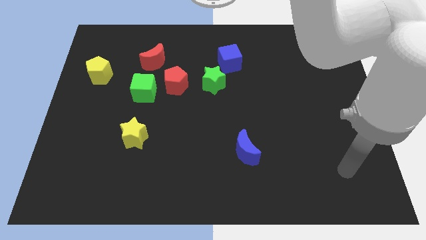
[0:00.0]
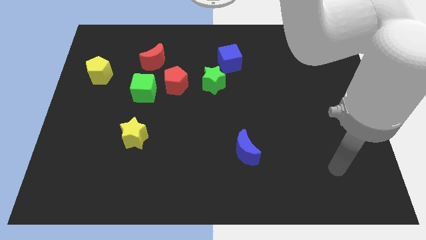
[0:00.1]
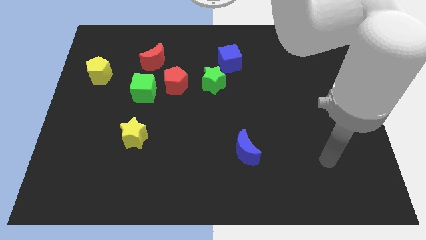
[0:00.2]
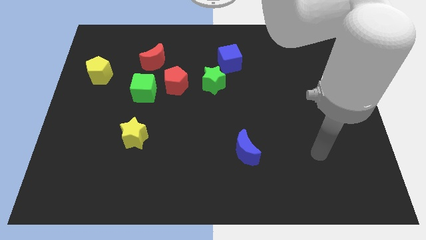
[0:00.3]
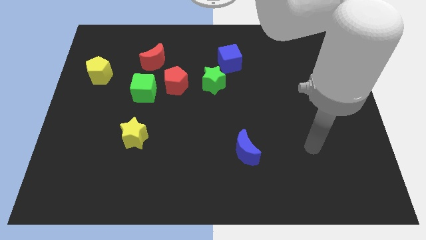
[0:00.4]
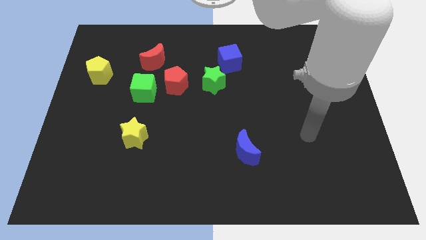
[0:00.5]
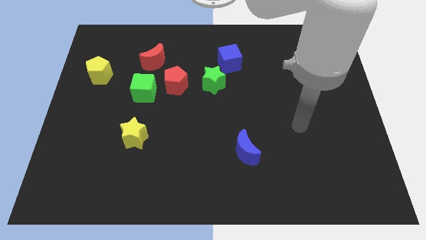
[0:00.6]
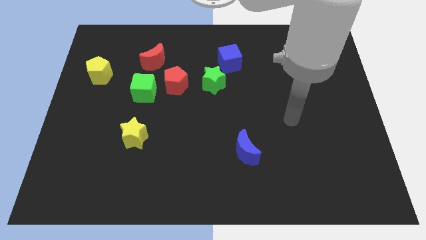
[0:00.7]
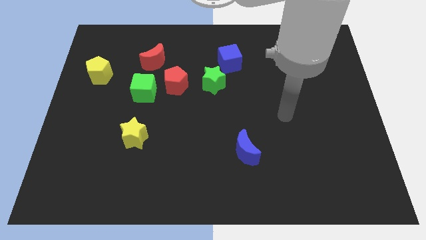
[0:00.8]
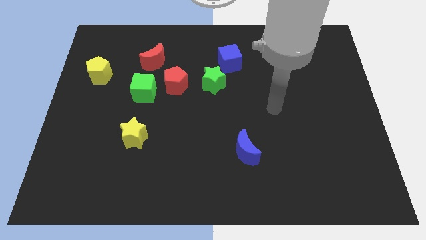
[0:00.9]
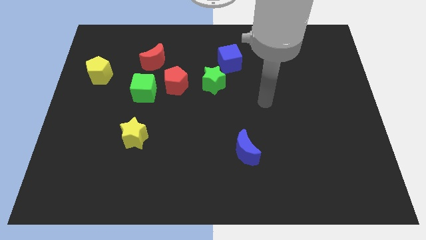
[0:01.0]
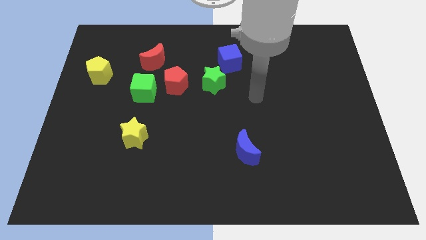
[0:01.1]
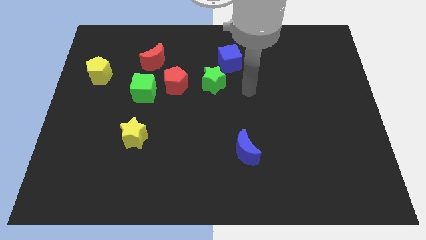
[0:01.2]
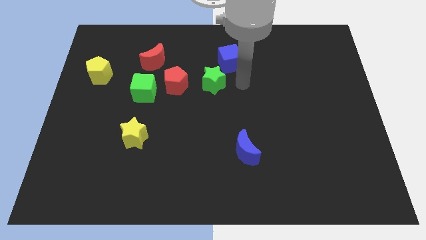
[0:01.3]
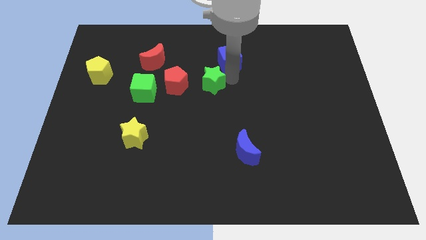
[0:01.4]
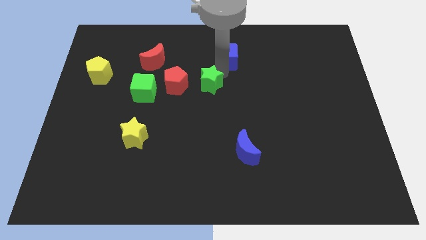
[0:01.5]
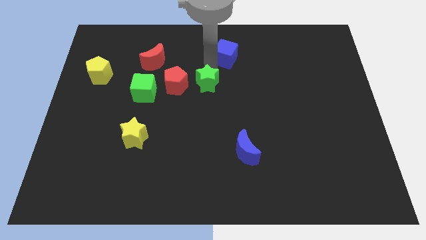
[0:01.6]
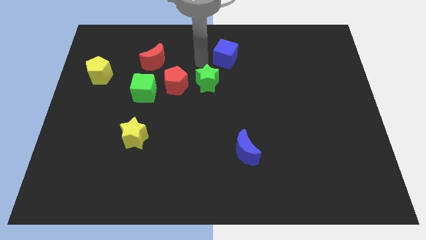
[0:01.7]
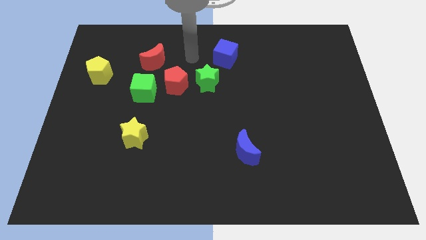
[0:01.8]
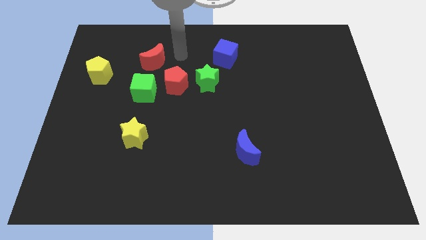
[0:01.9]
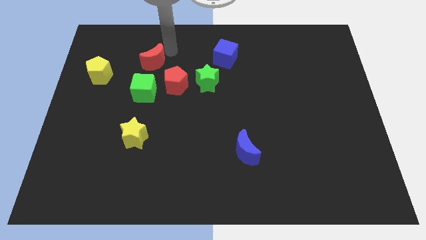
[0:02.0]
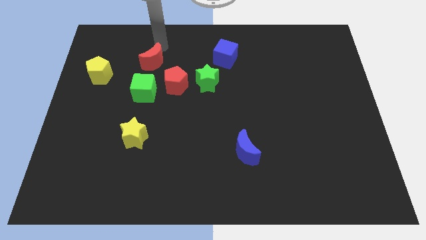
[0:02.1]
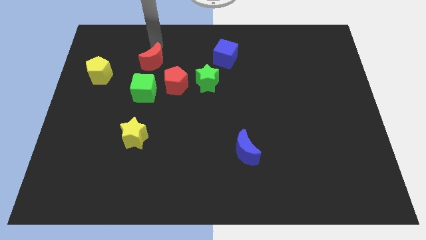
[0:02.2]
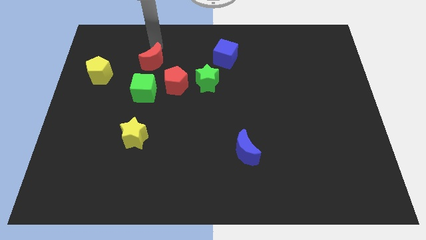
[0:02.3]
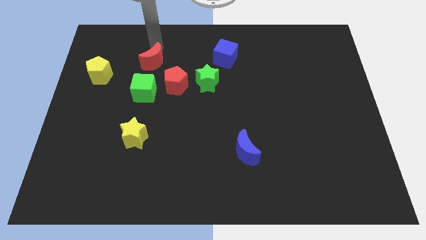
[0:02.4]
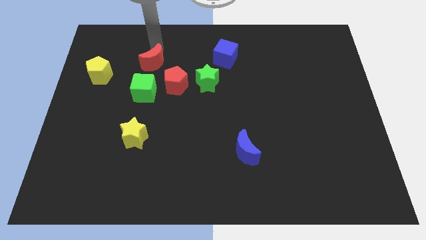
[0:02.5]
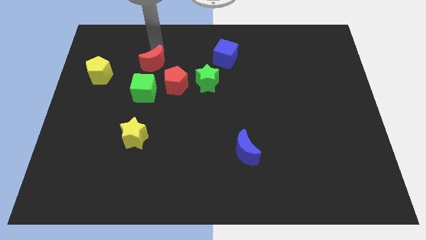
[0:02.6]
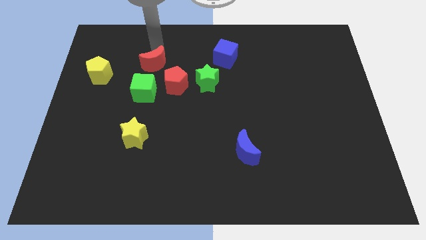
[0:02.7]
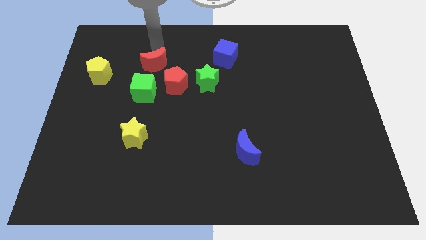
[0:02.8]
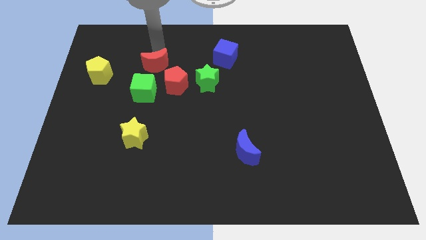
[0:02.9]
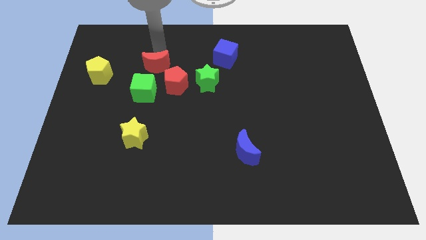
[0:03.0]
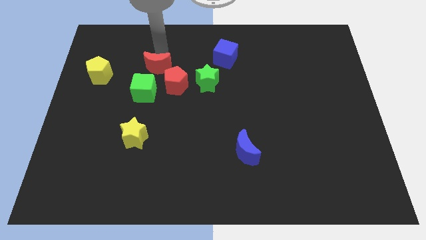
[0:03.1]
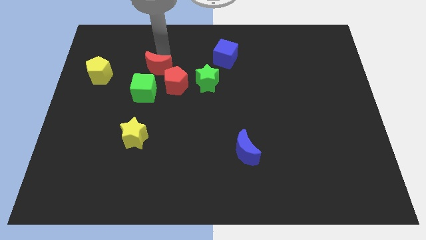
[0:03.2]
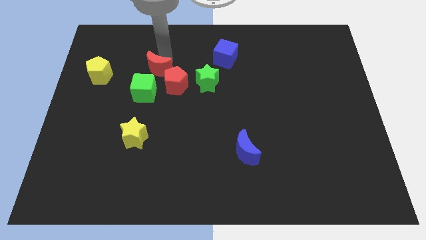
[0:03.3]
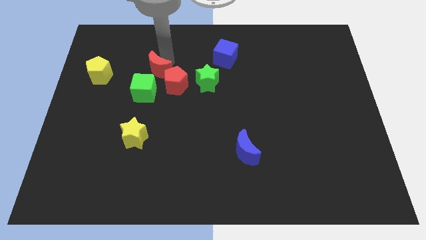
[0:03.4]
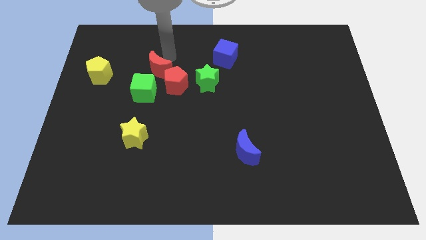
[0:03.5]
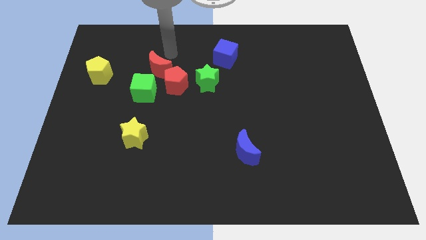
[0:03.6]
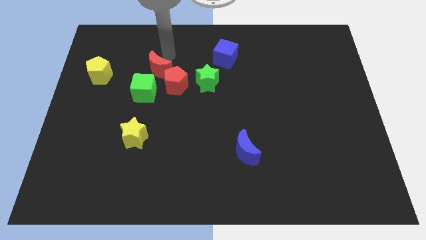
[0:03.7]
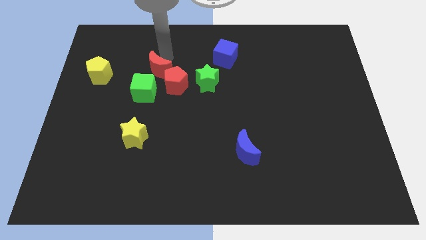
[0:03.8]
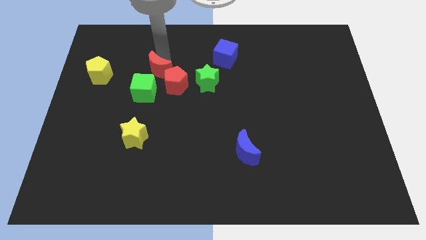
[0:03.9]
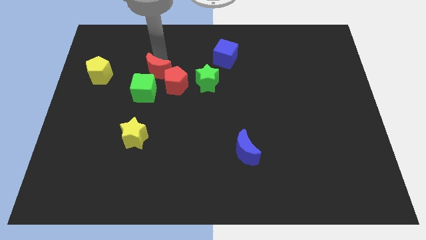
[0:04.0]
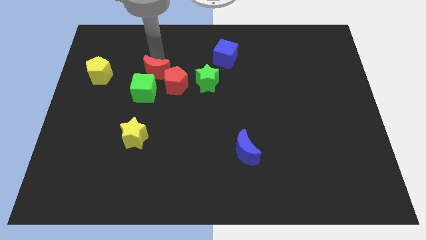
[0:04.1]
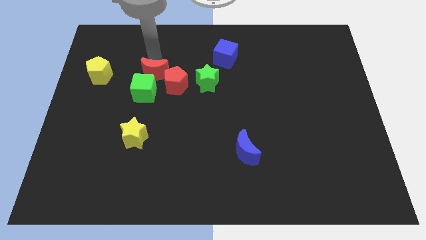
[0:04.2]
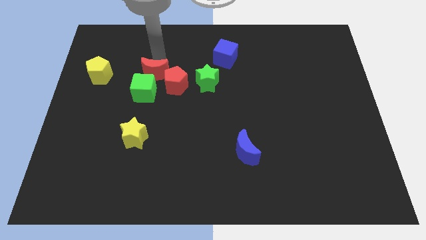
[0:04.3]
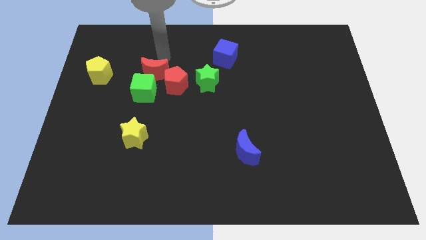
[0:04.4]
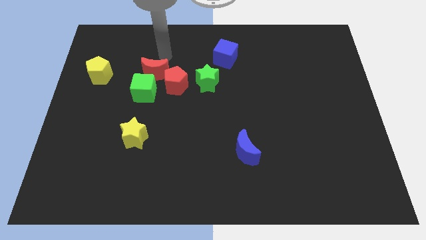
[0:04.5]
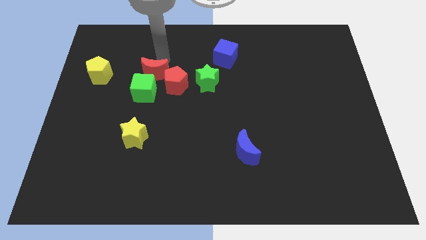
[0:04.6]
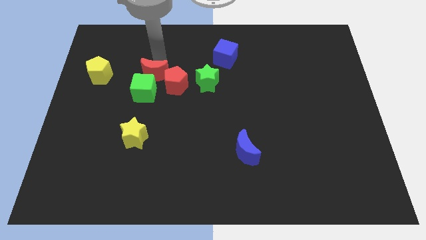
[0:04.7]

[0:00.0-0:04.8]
move the red moon next to the green cube

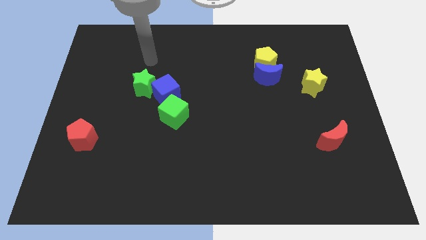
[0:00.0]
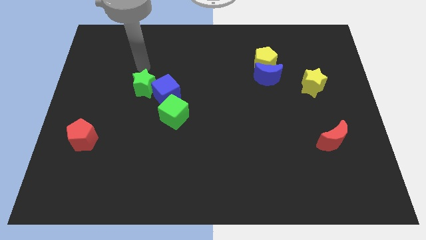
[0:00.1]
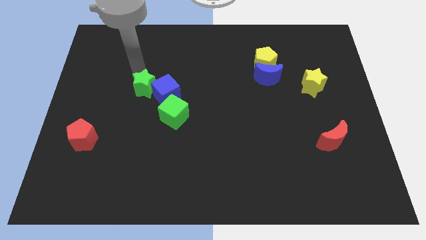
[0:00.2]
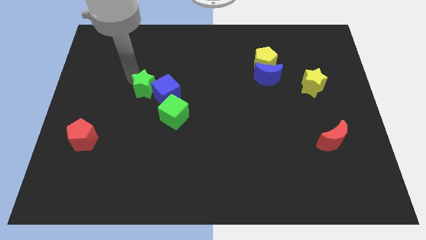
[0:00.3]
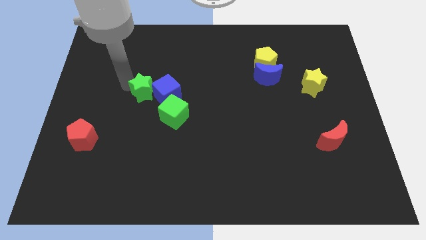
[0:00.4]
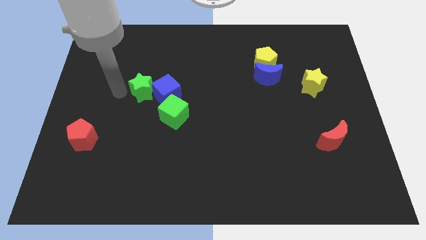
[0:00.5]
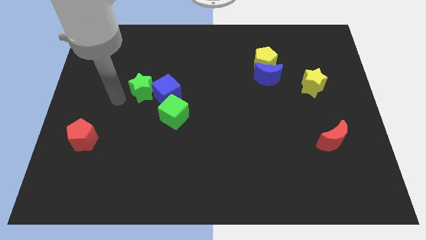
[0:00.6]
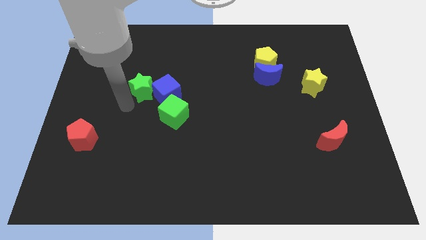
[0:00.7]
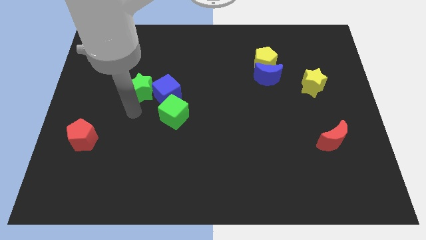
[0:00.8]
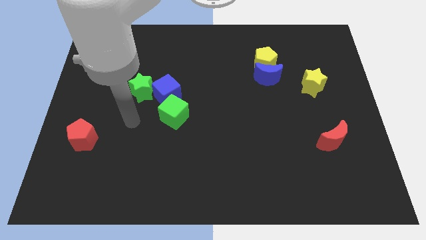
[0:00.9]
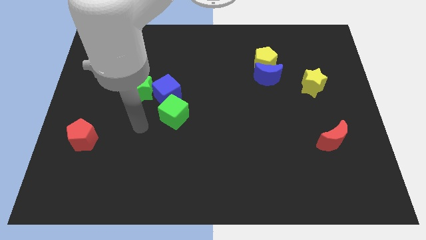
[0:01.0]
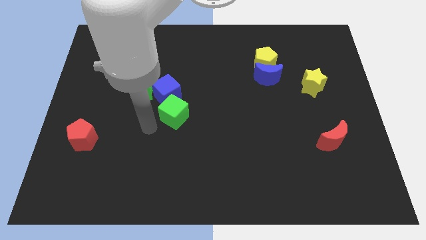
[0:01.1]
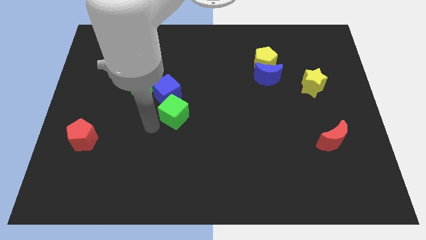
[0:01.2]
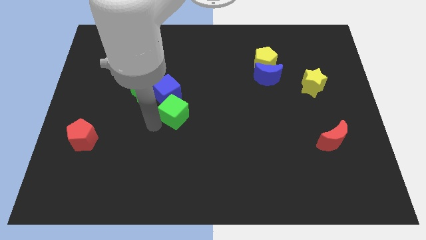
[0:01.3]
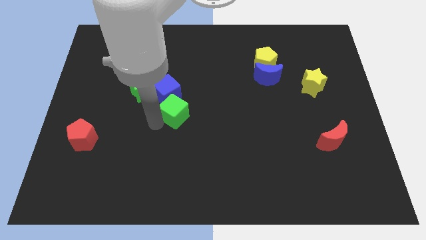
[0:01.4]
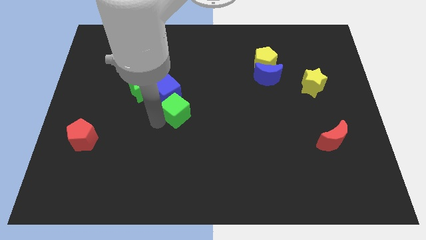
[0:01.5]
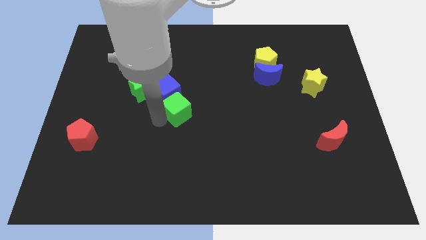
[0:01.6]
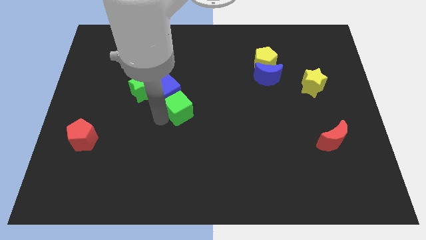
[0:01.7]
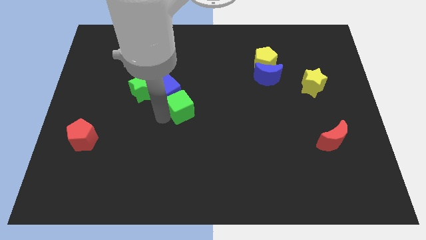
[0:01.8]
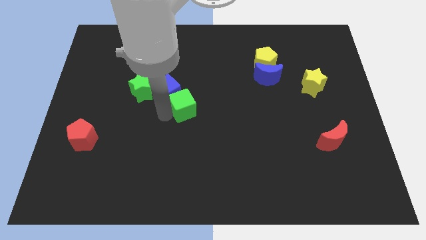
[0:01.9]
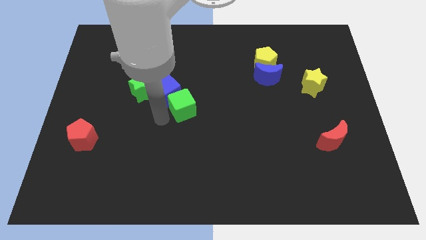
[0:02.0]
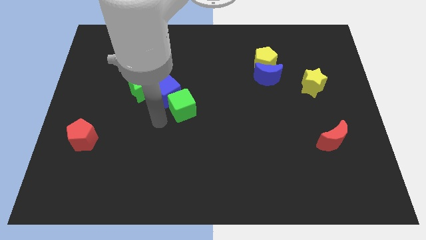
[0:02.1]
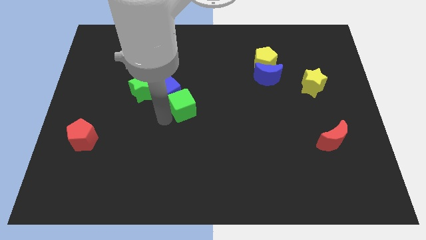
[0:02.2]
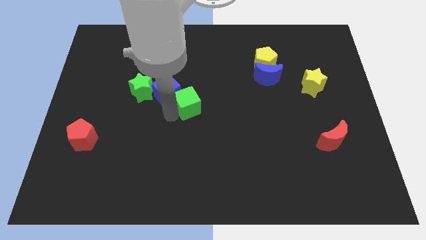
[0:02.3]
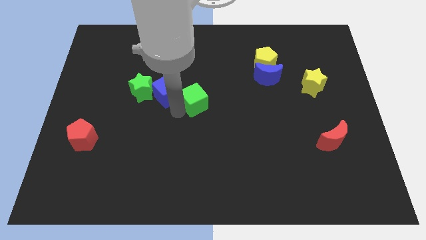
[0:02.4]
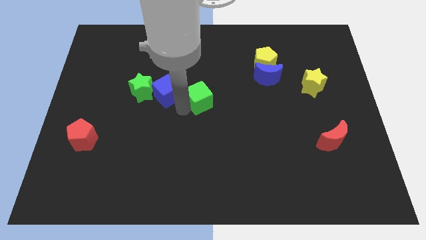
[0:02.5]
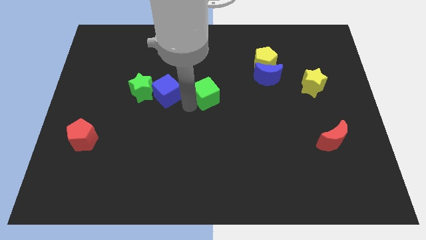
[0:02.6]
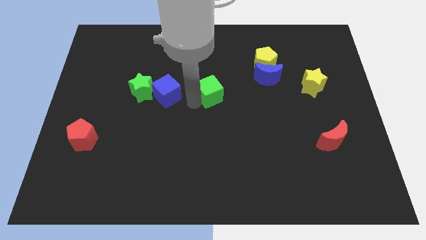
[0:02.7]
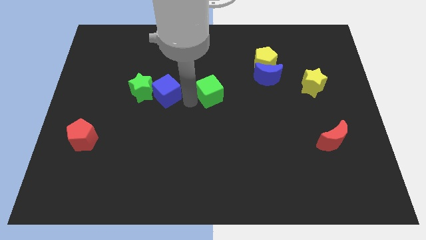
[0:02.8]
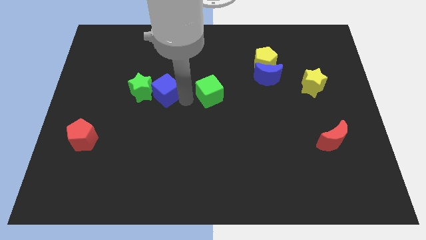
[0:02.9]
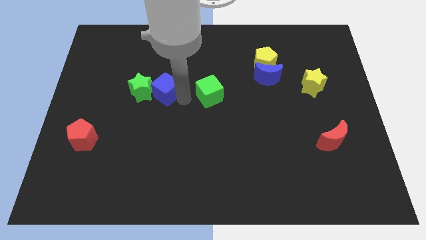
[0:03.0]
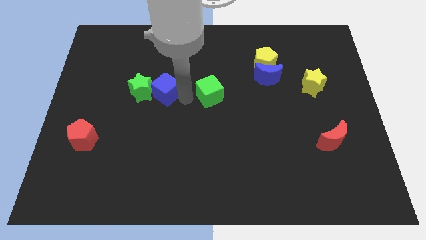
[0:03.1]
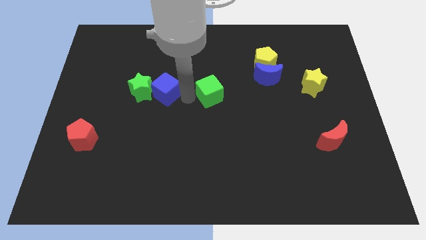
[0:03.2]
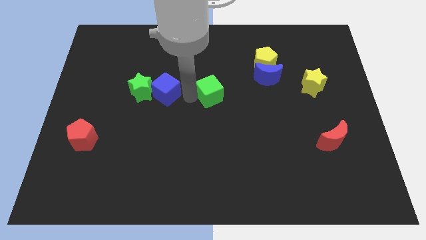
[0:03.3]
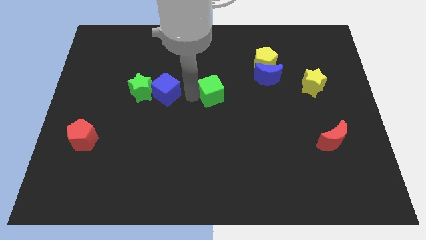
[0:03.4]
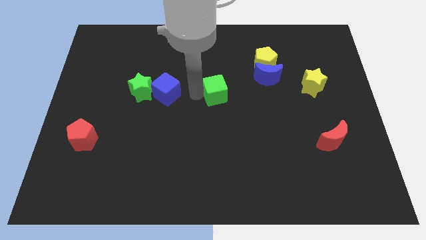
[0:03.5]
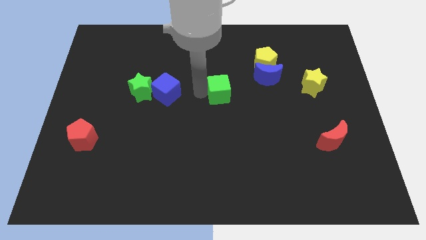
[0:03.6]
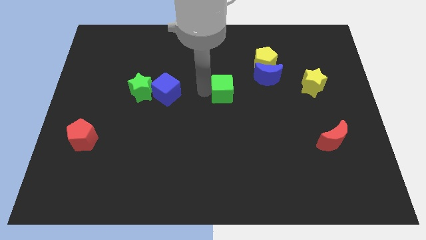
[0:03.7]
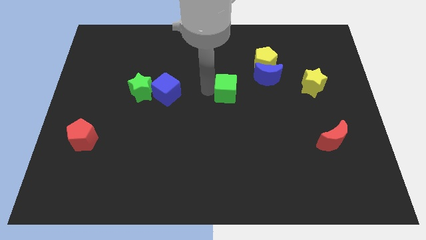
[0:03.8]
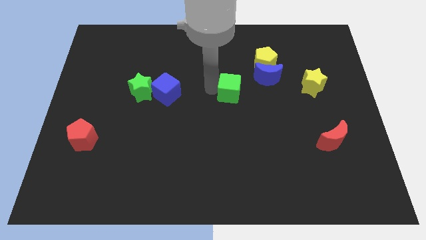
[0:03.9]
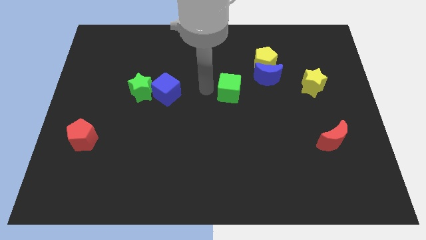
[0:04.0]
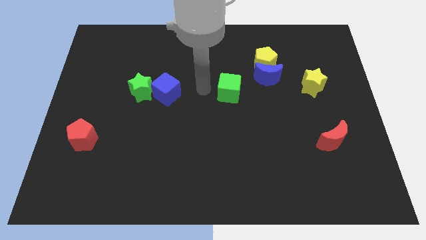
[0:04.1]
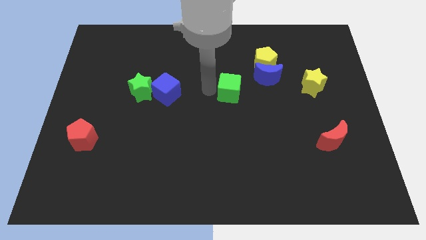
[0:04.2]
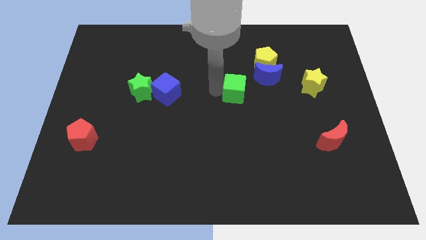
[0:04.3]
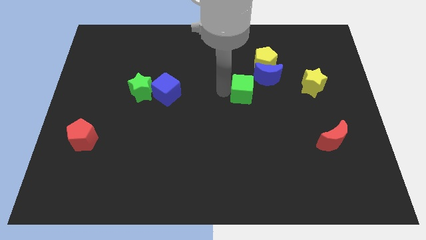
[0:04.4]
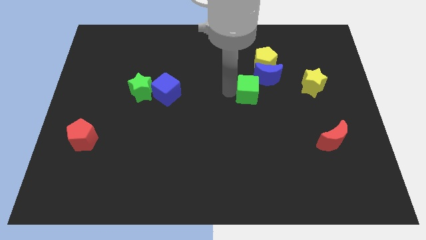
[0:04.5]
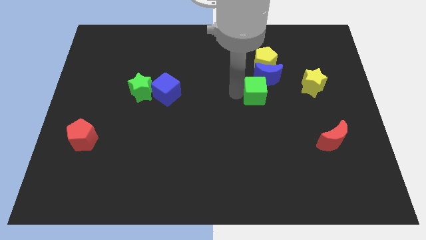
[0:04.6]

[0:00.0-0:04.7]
slide the green cube towards the blue moon
